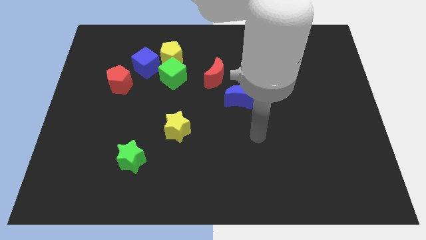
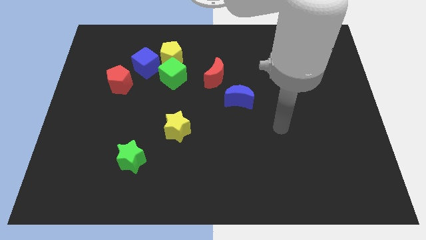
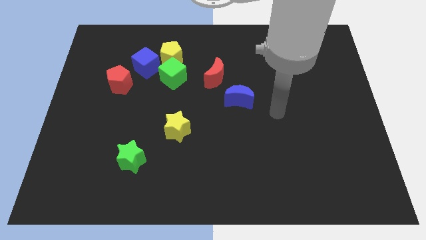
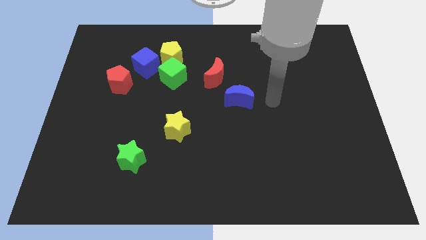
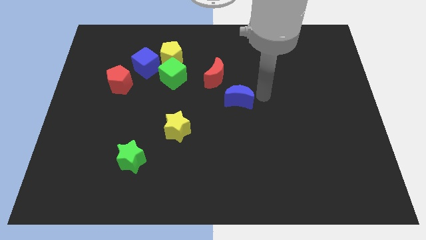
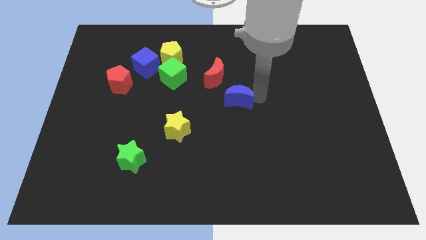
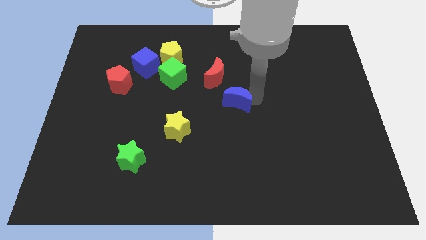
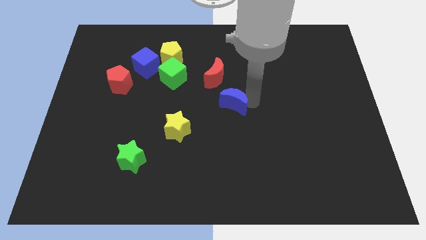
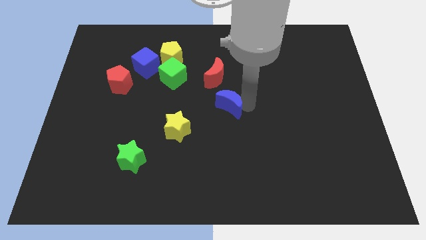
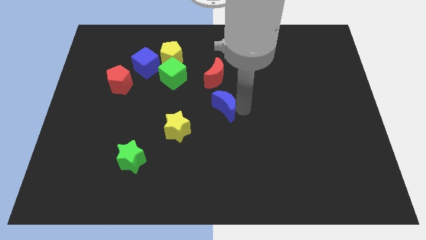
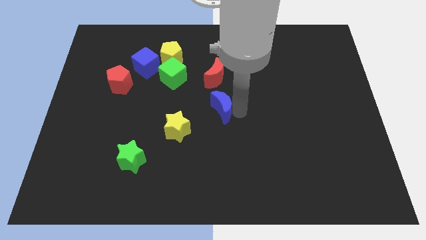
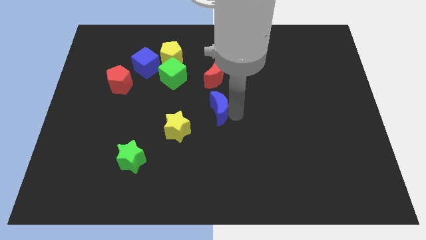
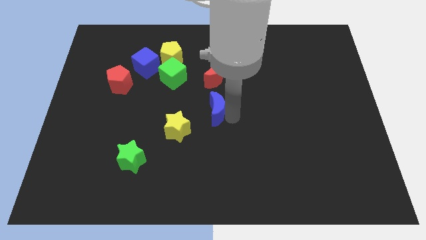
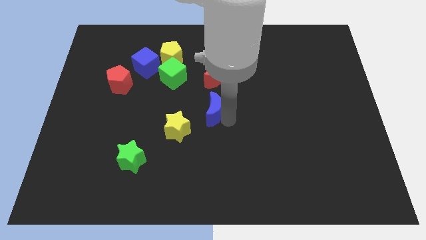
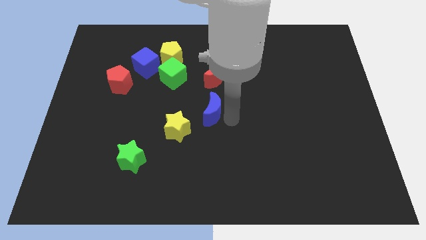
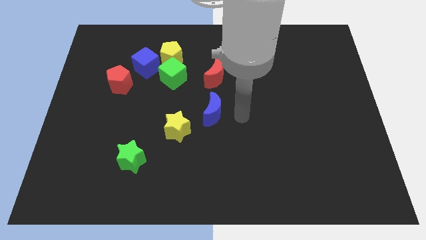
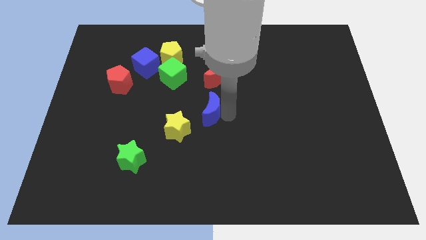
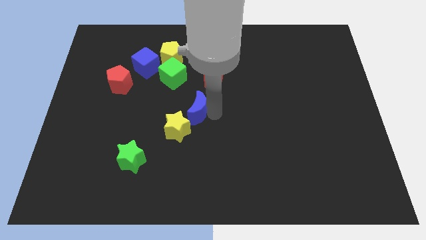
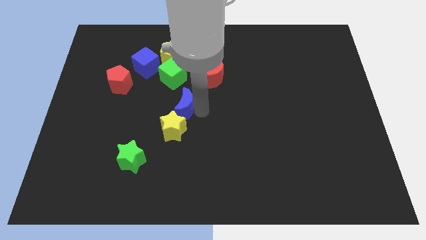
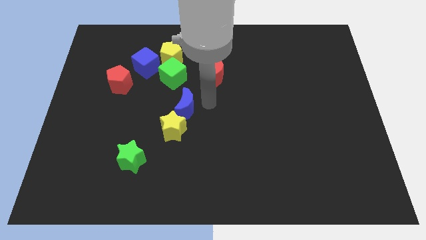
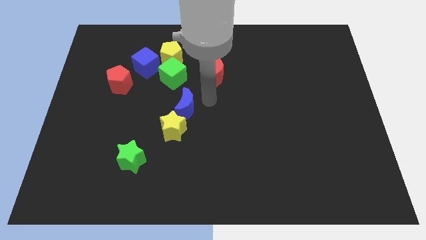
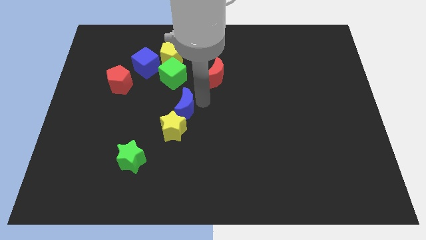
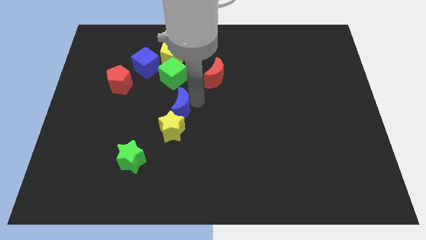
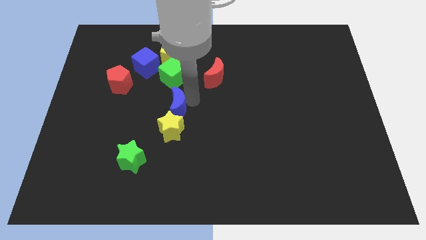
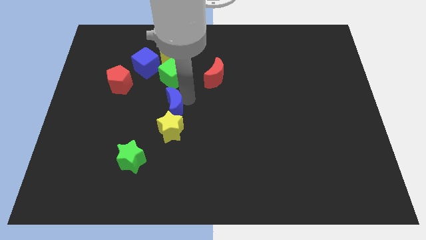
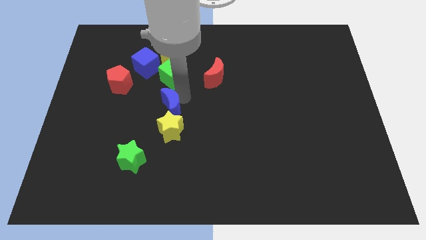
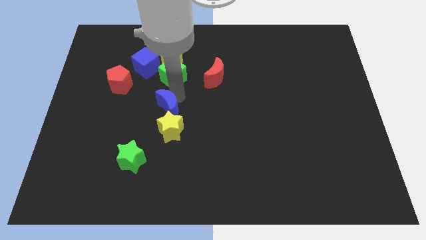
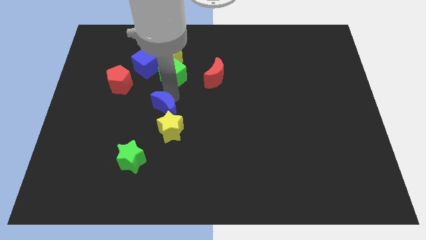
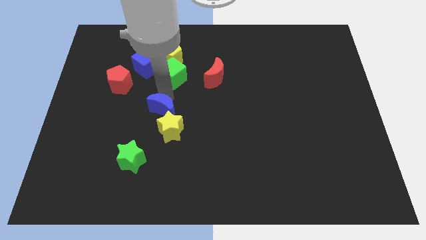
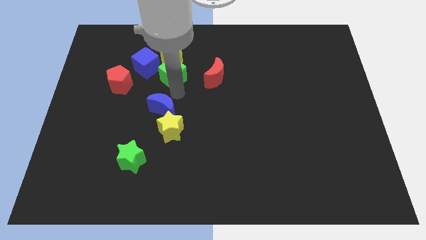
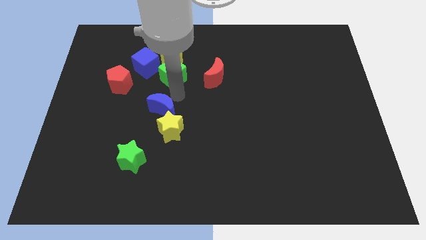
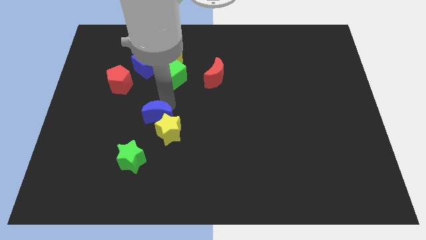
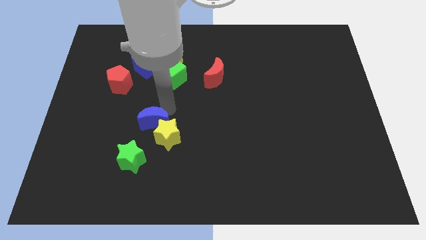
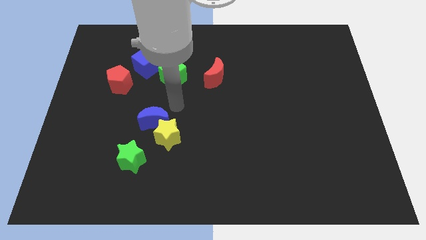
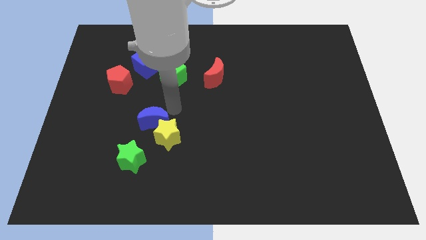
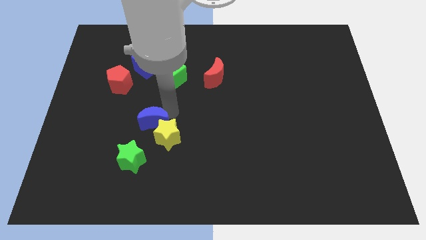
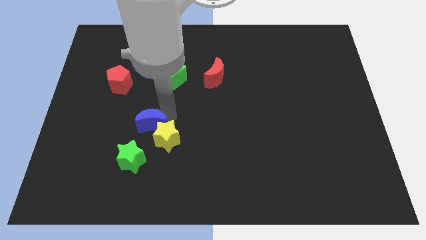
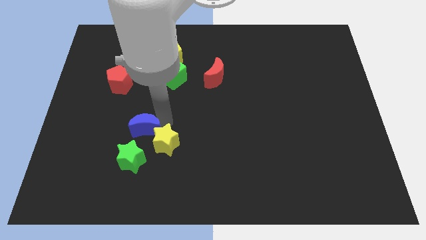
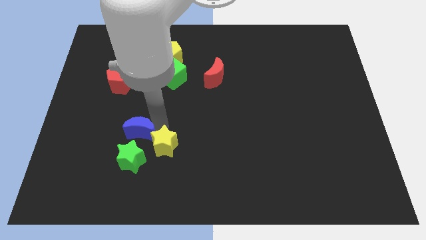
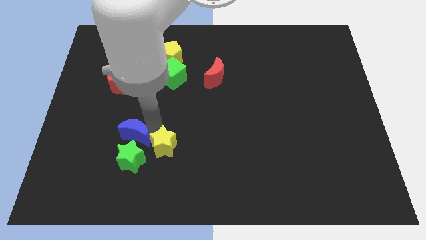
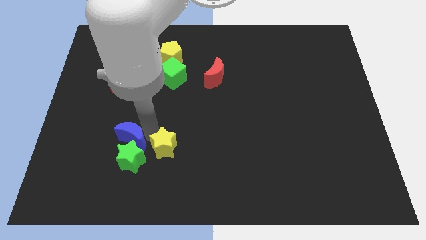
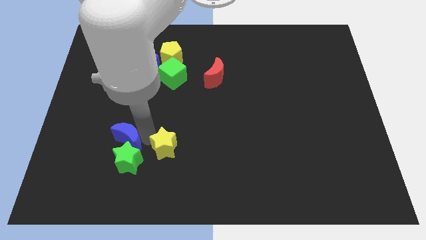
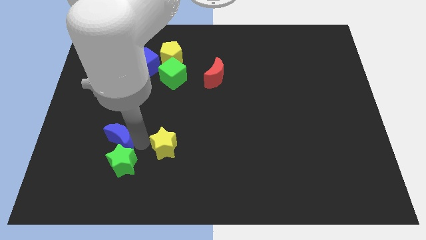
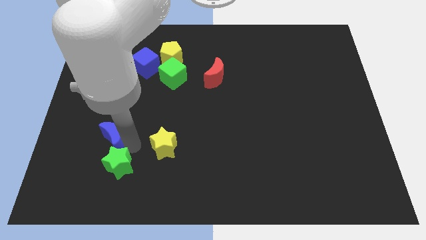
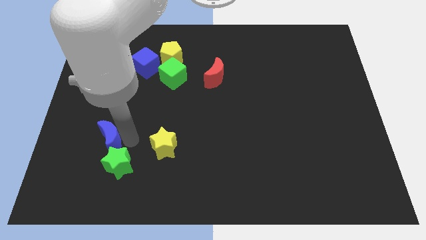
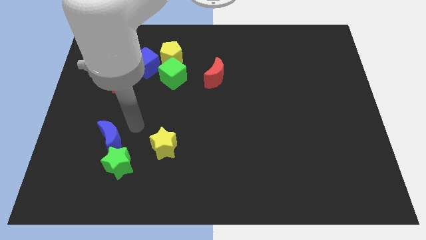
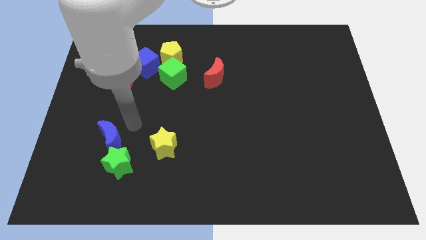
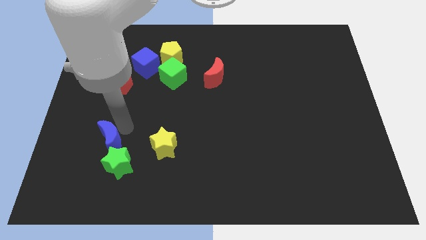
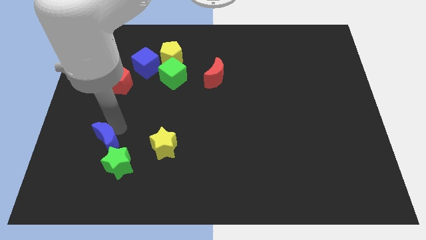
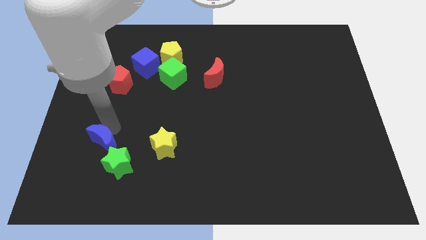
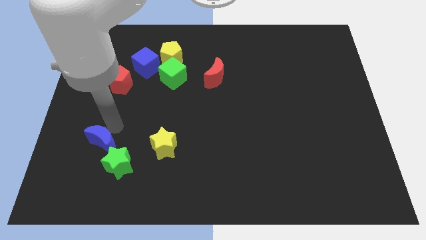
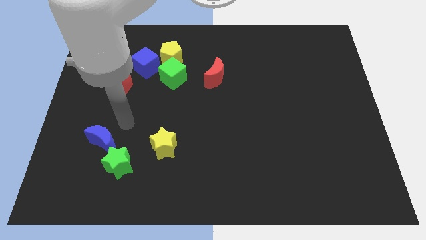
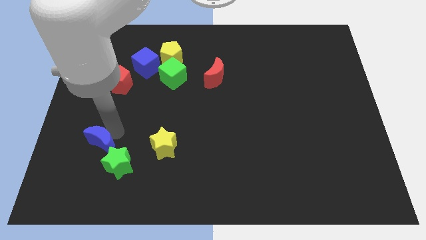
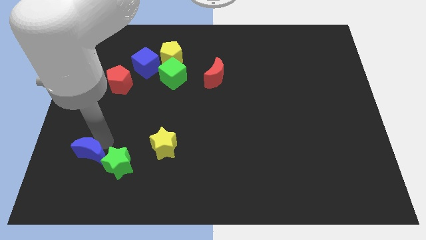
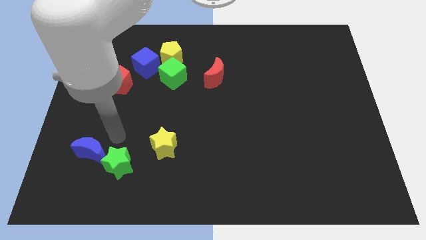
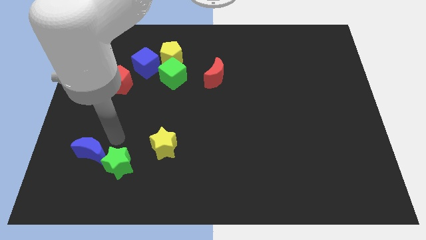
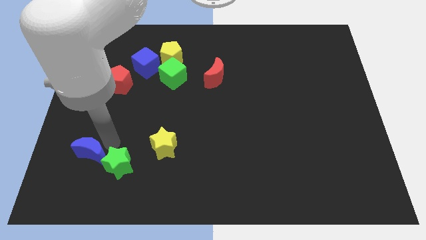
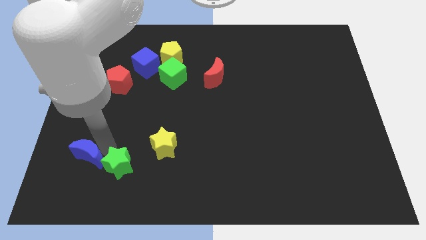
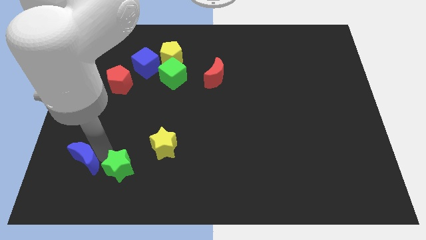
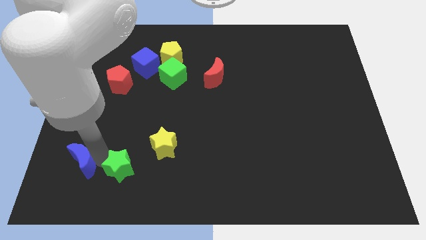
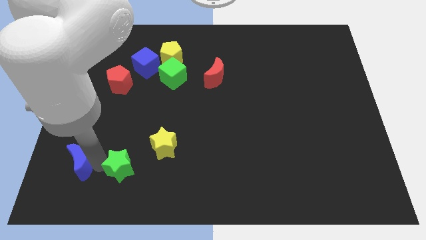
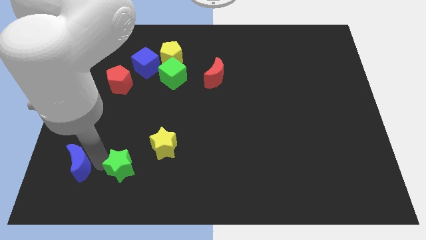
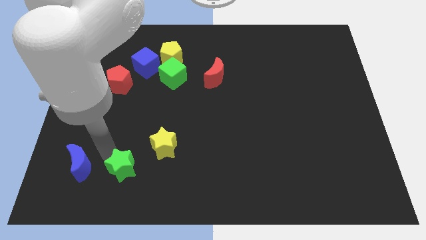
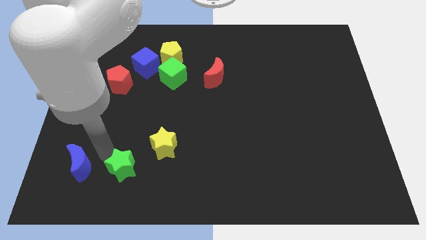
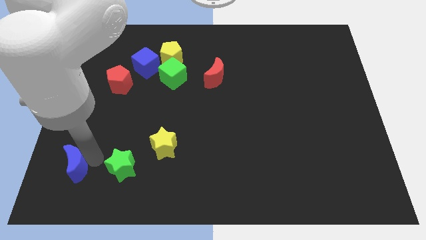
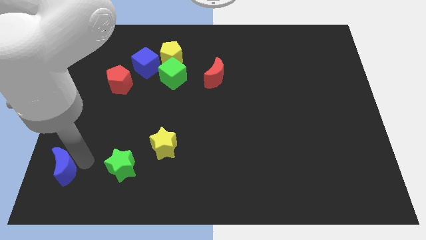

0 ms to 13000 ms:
put the blue moon to the lower left corner

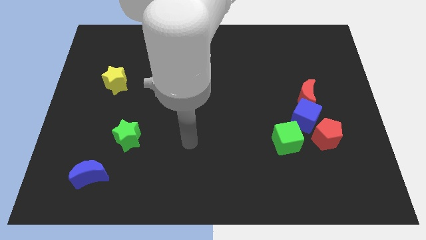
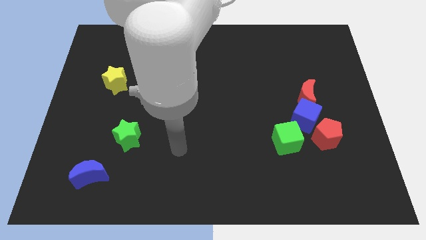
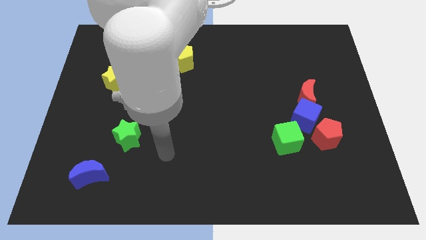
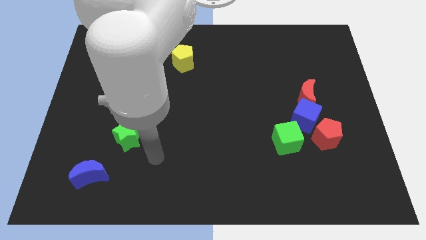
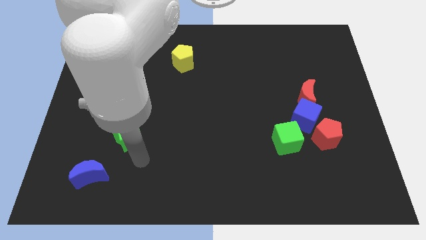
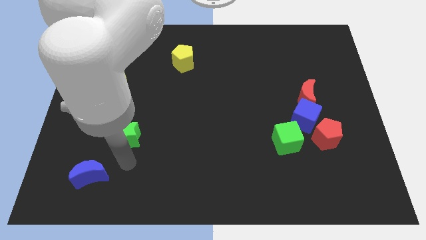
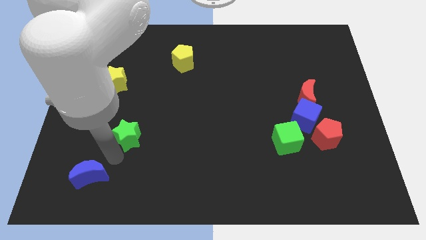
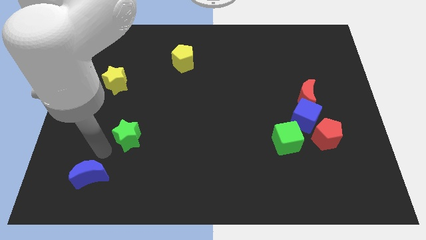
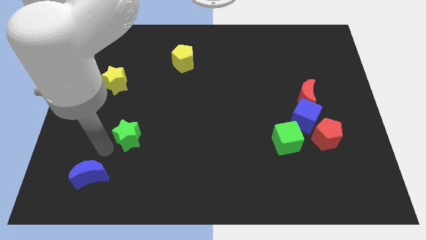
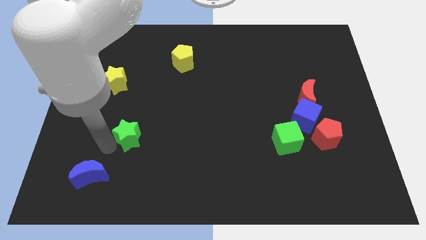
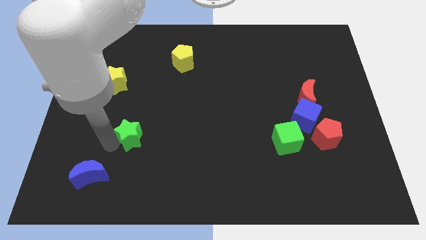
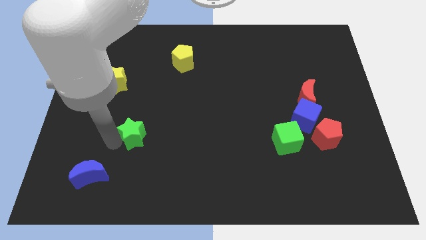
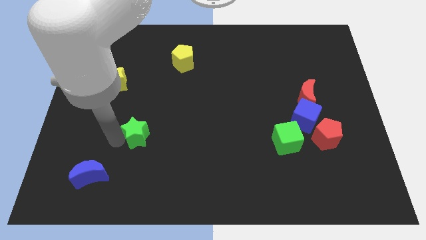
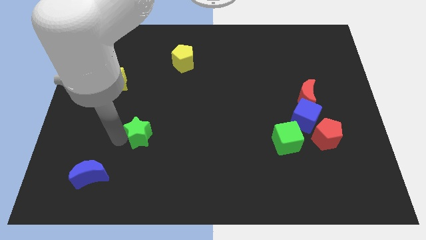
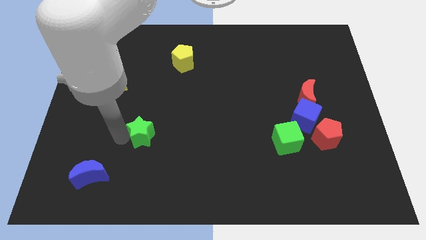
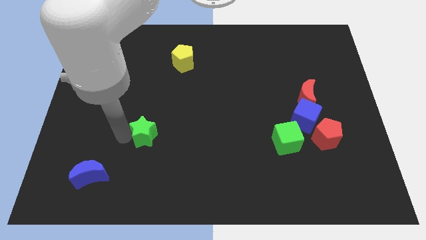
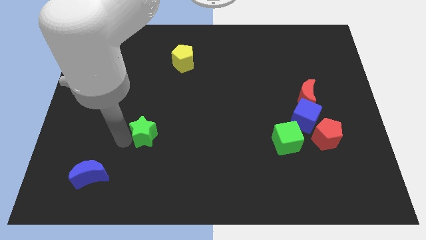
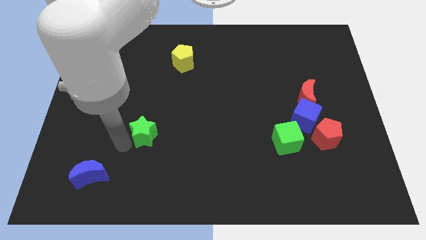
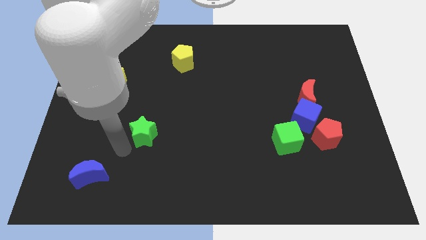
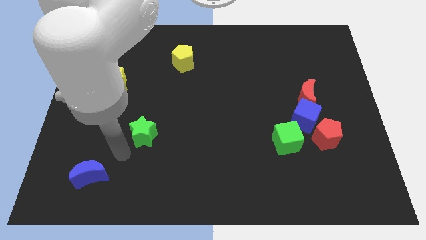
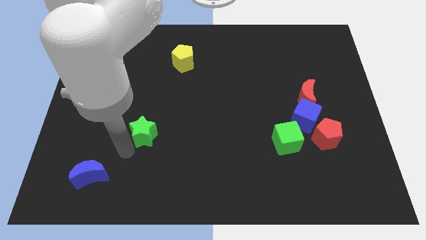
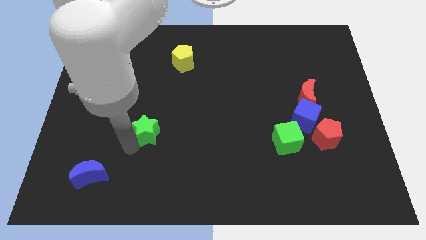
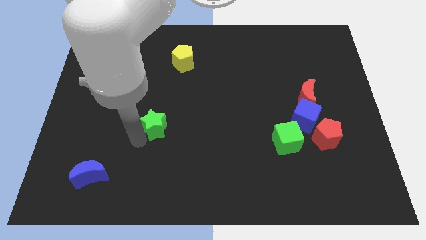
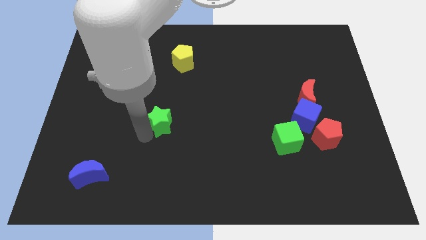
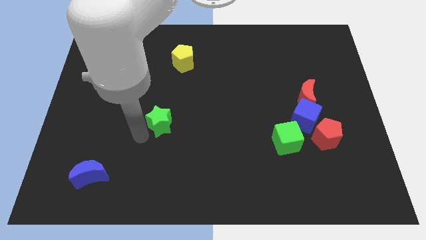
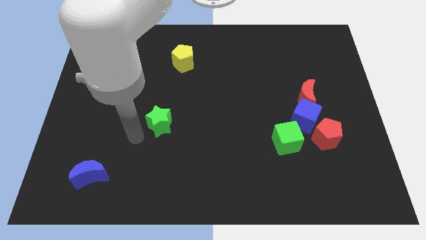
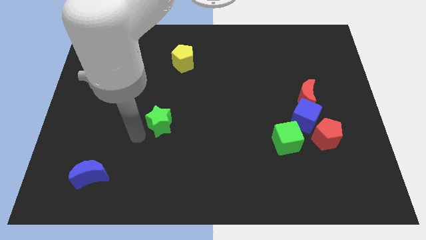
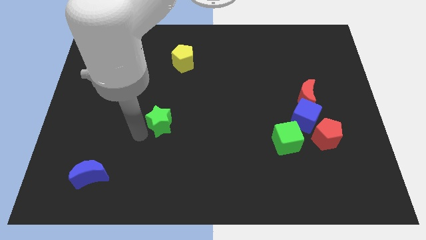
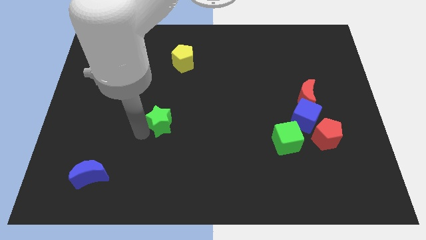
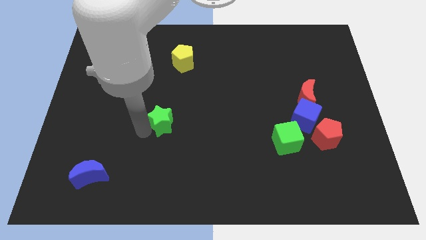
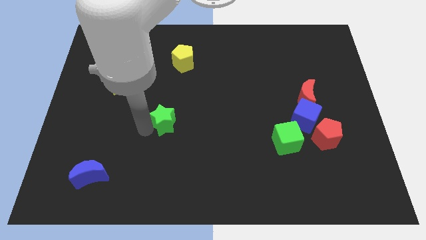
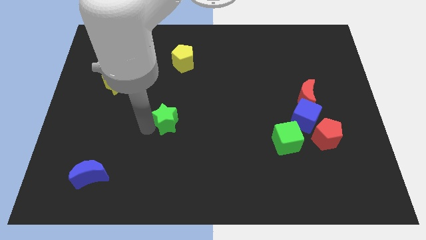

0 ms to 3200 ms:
put the green star to the center of the board
